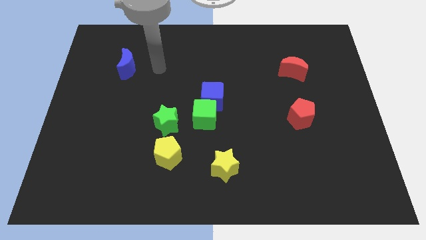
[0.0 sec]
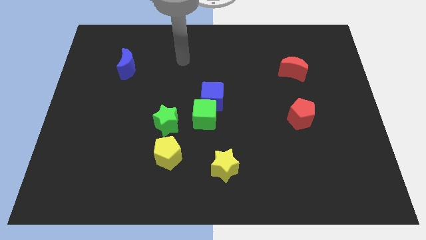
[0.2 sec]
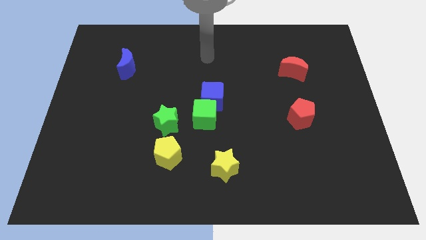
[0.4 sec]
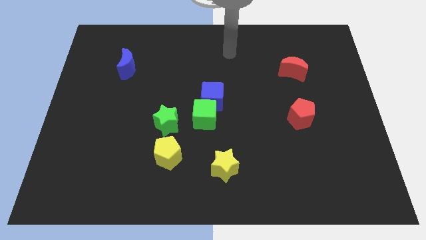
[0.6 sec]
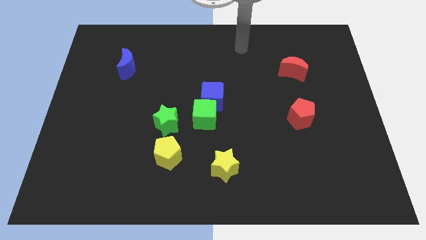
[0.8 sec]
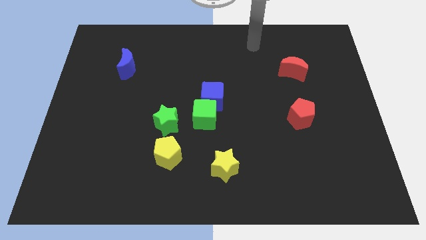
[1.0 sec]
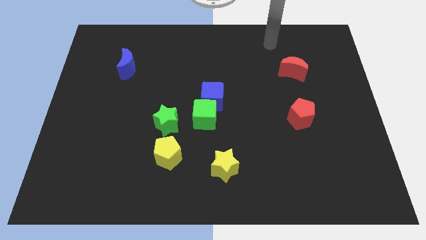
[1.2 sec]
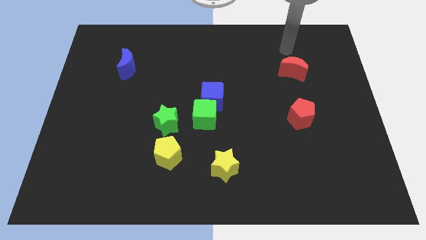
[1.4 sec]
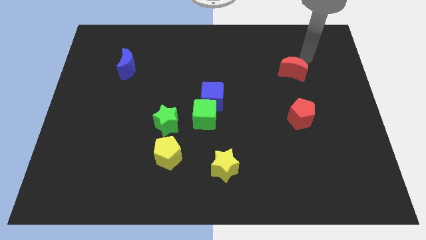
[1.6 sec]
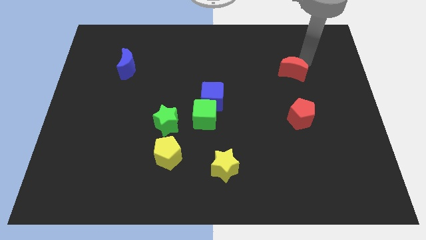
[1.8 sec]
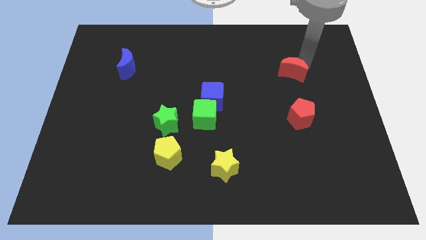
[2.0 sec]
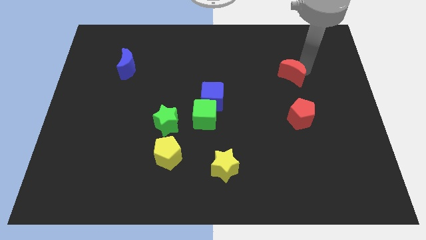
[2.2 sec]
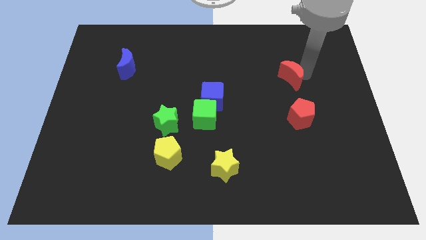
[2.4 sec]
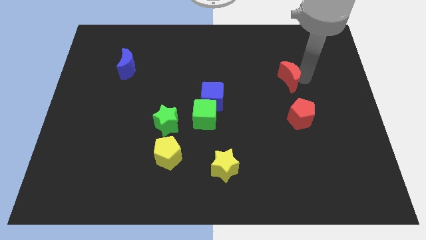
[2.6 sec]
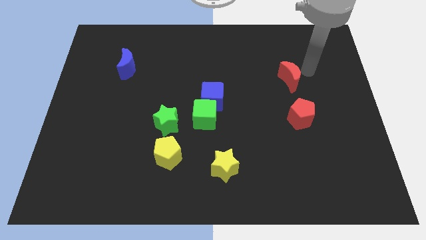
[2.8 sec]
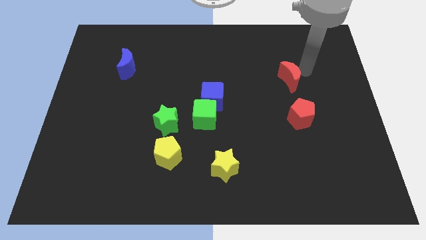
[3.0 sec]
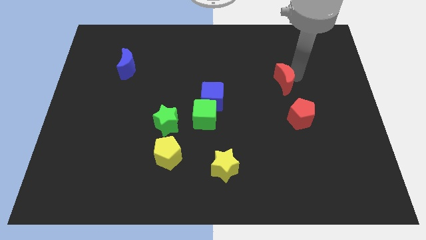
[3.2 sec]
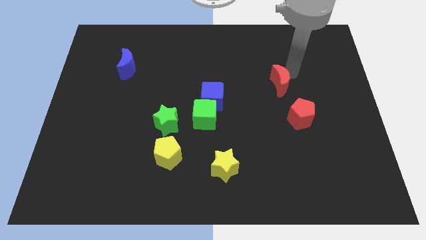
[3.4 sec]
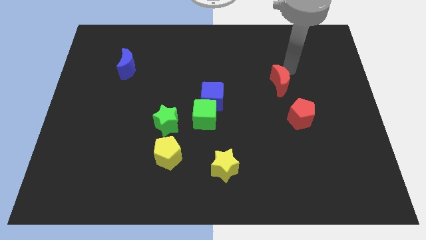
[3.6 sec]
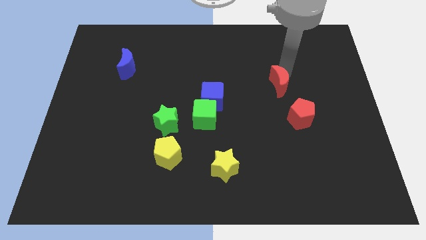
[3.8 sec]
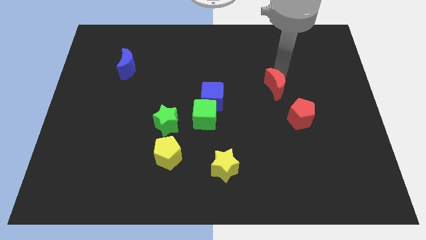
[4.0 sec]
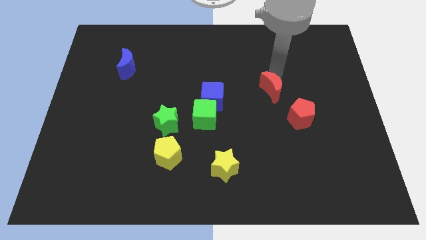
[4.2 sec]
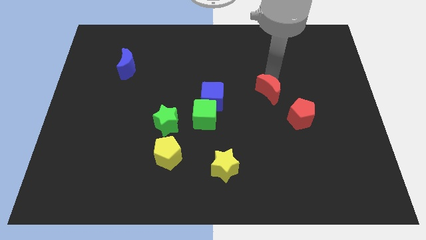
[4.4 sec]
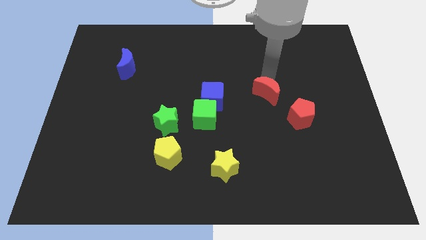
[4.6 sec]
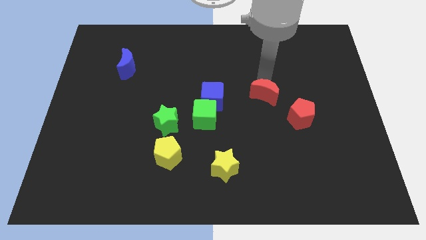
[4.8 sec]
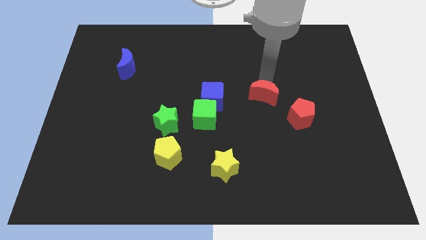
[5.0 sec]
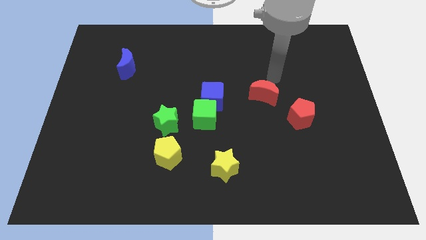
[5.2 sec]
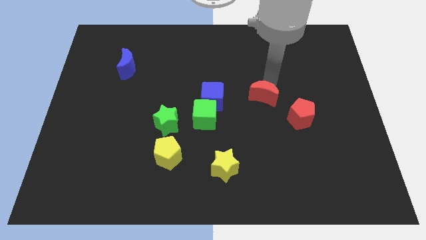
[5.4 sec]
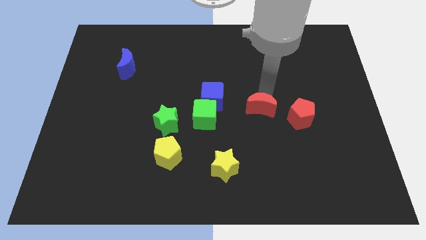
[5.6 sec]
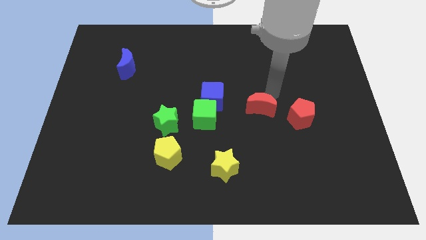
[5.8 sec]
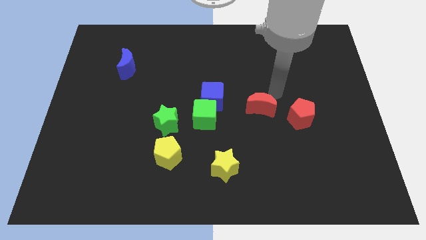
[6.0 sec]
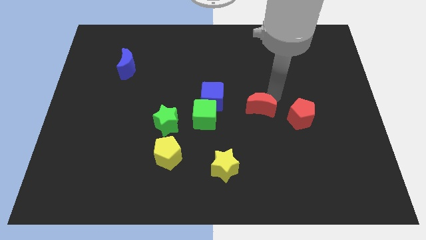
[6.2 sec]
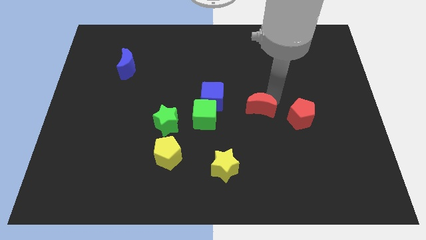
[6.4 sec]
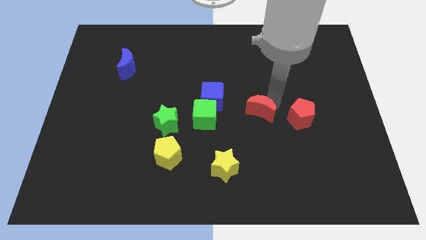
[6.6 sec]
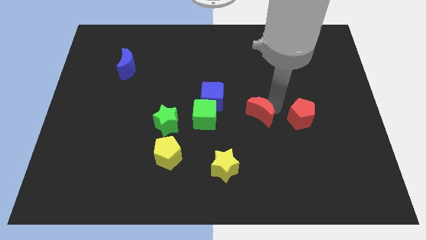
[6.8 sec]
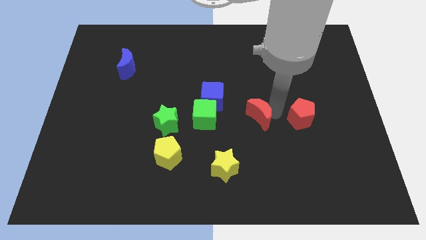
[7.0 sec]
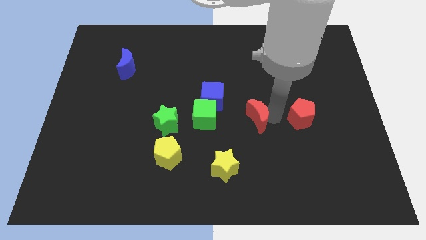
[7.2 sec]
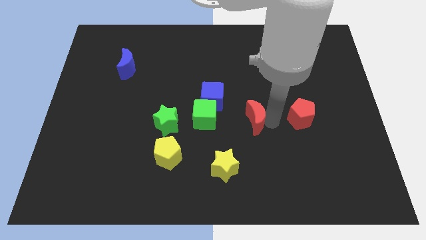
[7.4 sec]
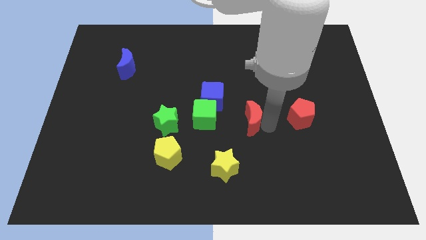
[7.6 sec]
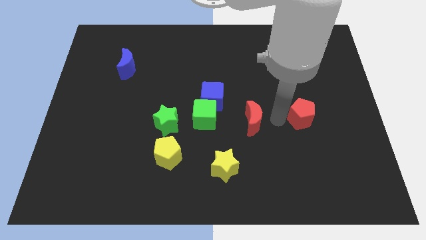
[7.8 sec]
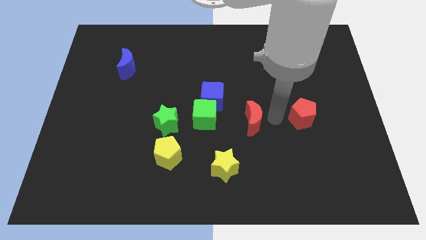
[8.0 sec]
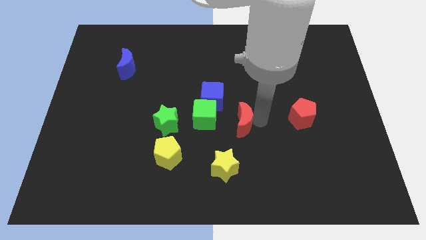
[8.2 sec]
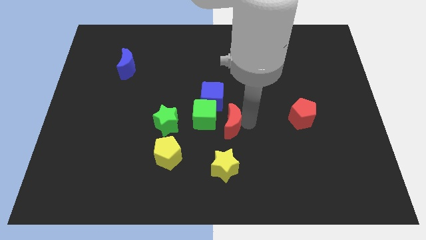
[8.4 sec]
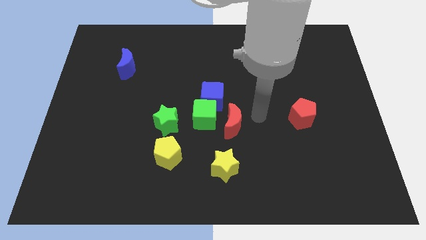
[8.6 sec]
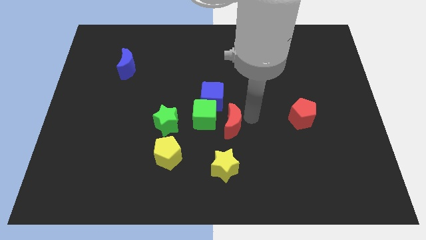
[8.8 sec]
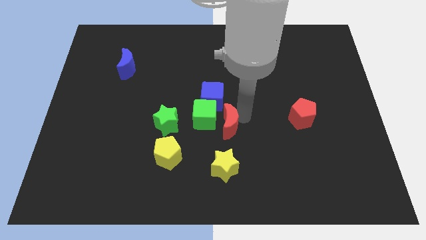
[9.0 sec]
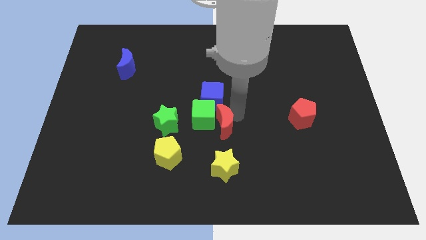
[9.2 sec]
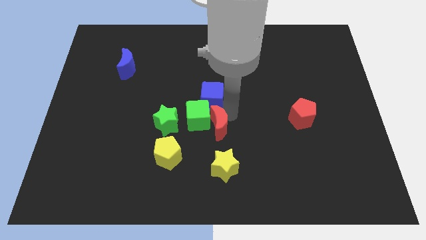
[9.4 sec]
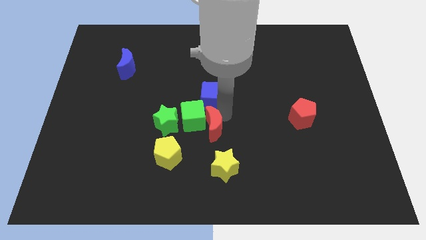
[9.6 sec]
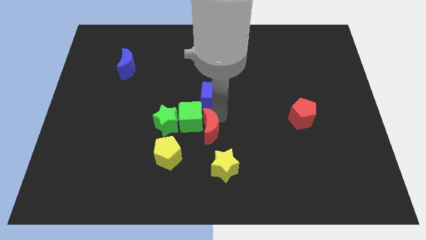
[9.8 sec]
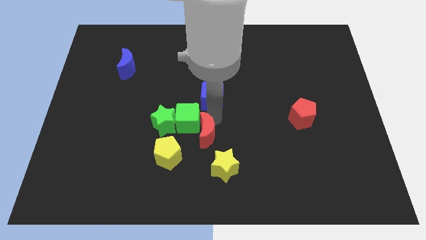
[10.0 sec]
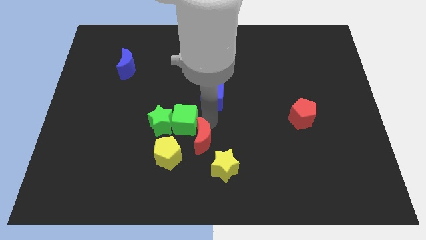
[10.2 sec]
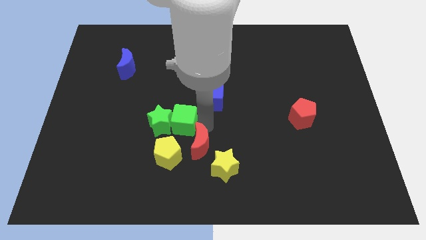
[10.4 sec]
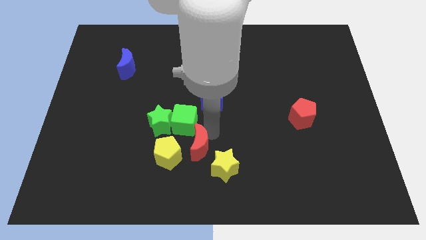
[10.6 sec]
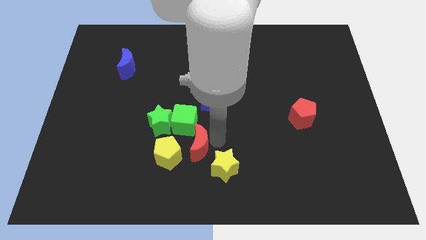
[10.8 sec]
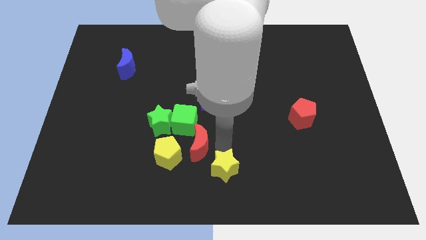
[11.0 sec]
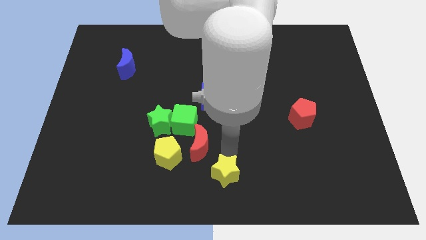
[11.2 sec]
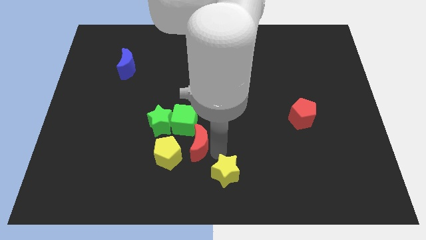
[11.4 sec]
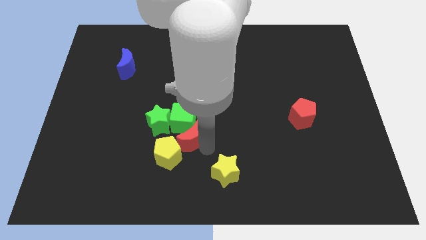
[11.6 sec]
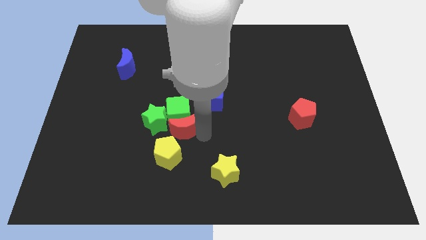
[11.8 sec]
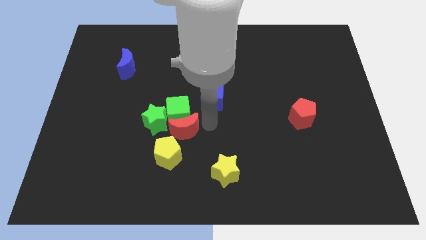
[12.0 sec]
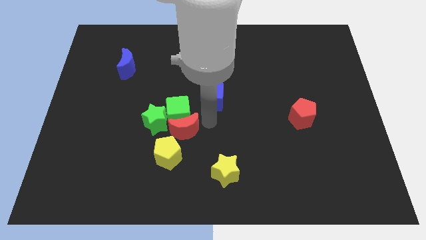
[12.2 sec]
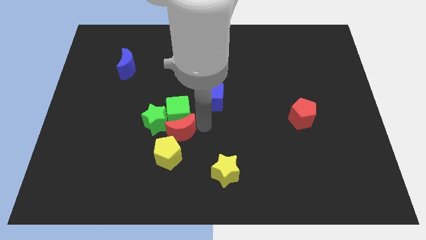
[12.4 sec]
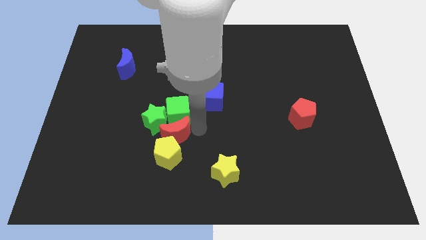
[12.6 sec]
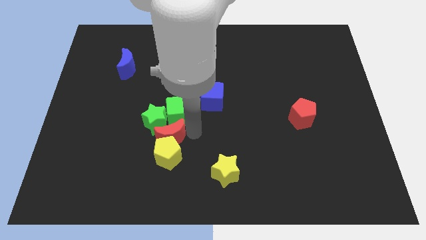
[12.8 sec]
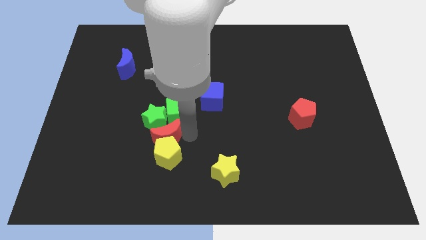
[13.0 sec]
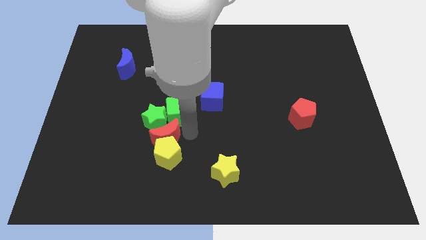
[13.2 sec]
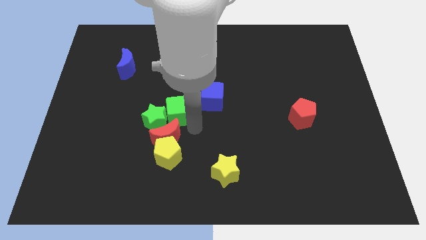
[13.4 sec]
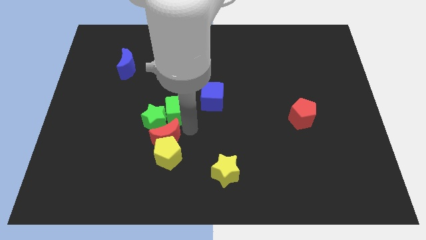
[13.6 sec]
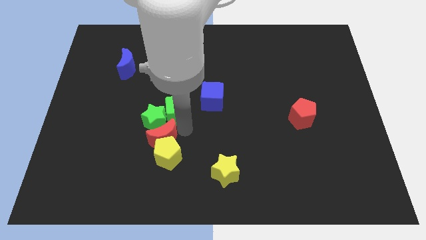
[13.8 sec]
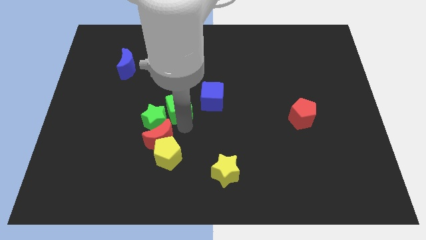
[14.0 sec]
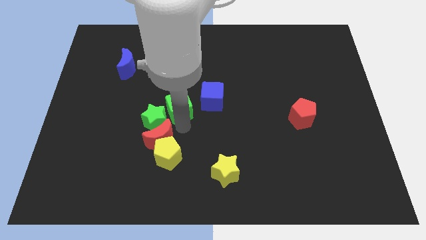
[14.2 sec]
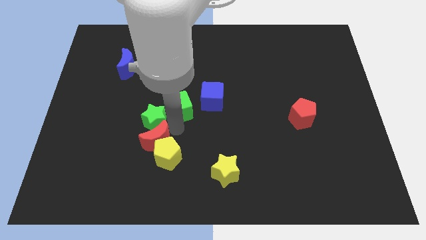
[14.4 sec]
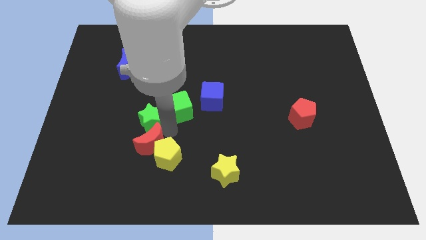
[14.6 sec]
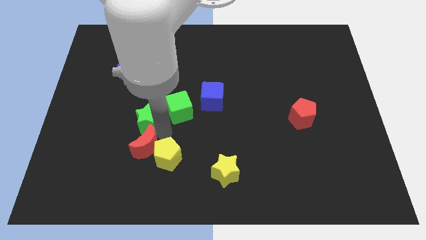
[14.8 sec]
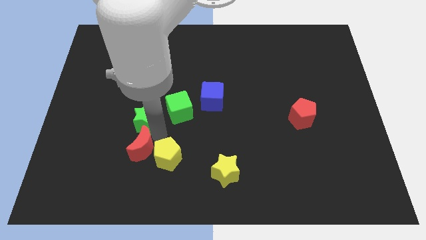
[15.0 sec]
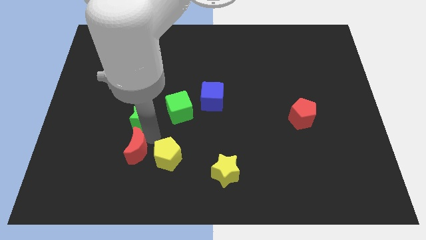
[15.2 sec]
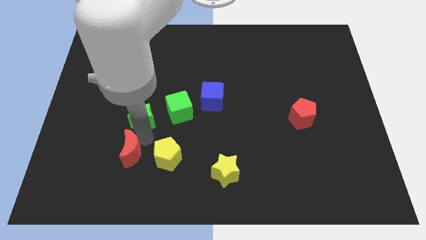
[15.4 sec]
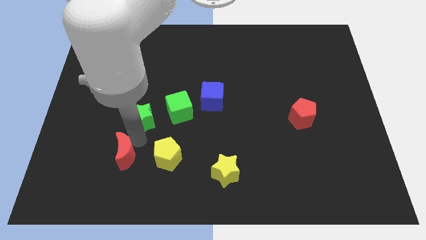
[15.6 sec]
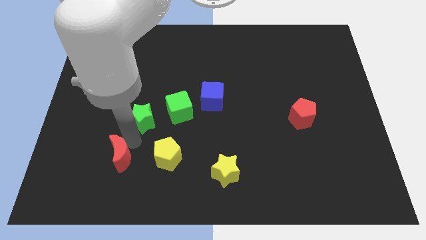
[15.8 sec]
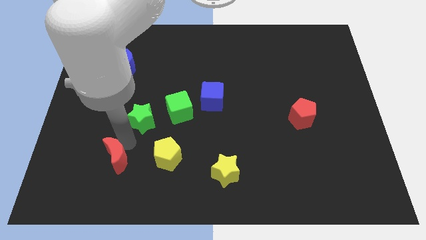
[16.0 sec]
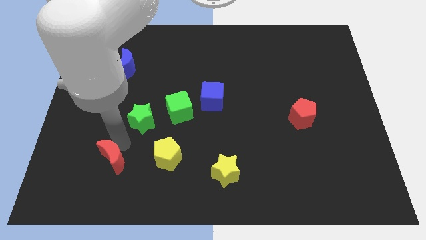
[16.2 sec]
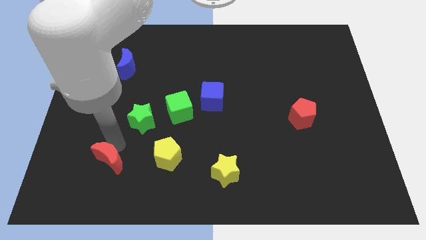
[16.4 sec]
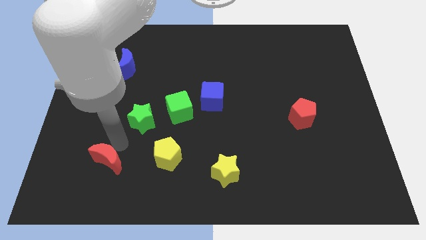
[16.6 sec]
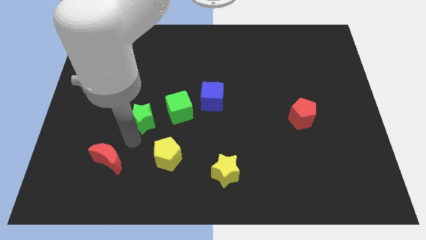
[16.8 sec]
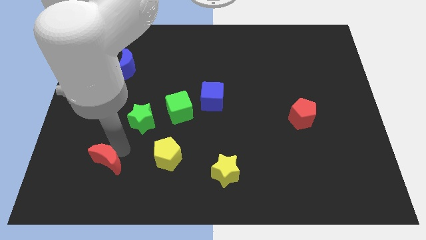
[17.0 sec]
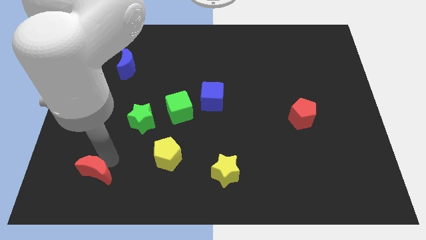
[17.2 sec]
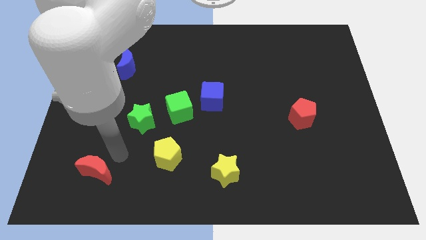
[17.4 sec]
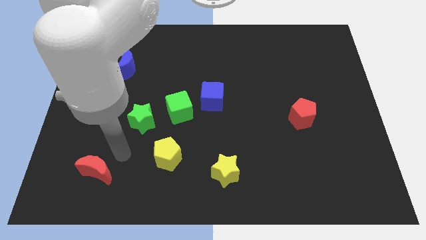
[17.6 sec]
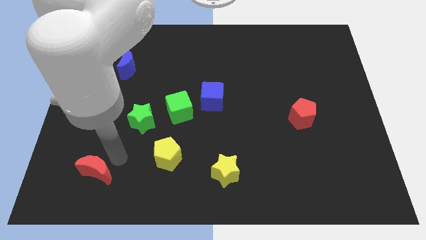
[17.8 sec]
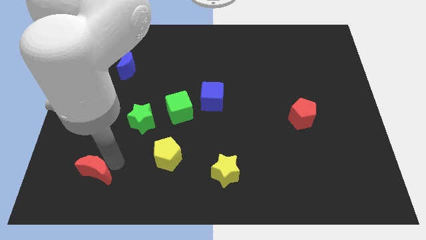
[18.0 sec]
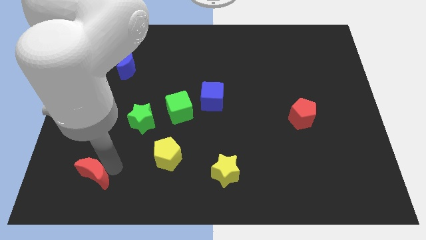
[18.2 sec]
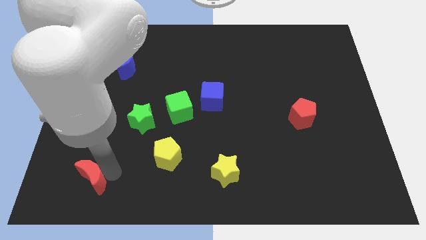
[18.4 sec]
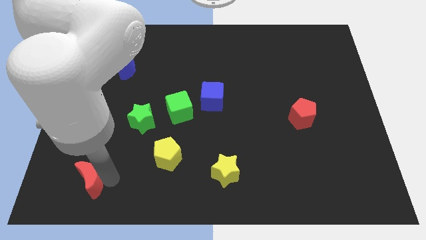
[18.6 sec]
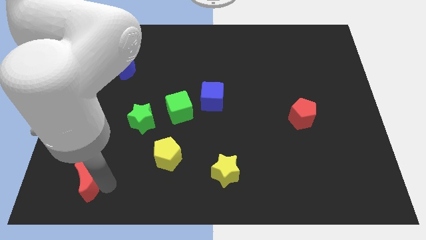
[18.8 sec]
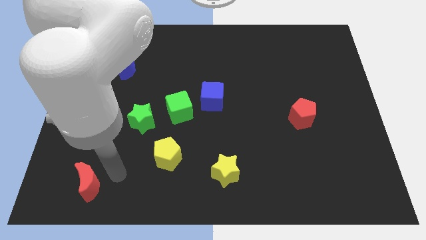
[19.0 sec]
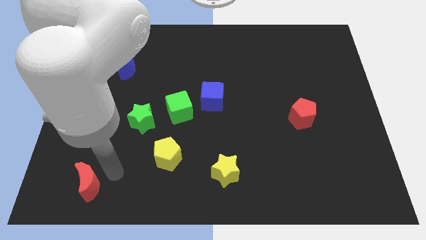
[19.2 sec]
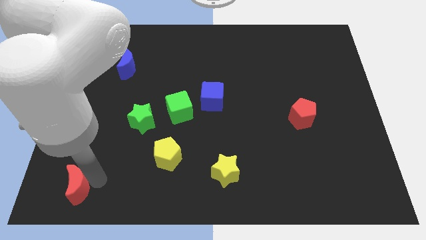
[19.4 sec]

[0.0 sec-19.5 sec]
move the red moon to the bottom left of the board
